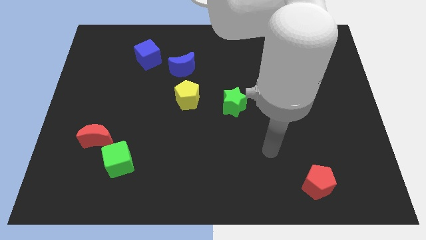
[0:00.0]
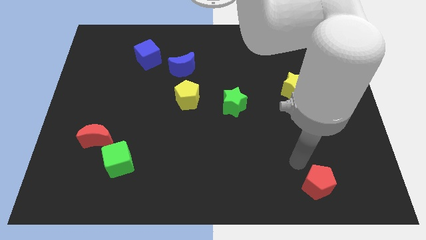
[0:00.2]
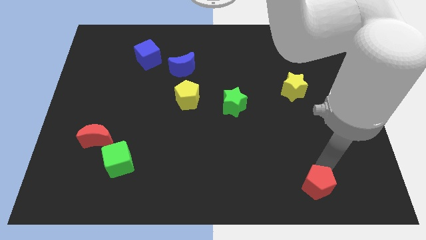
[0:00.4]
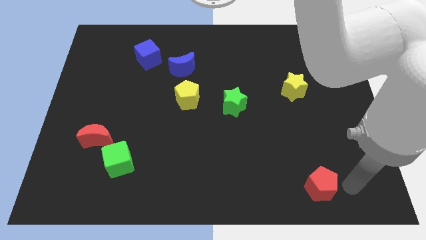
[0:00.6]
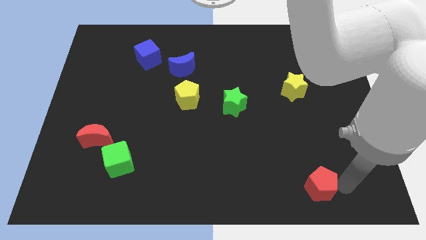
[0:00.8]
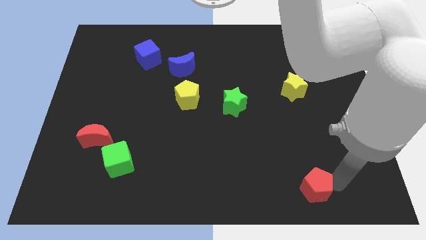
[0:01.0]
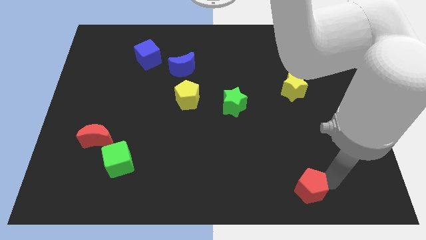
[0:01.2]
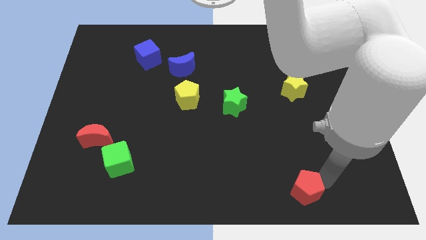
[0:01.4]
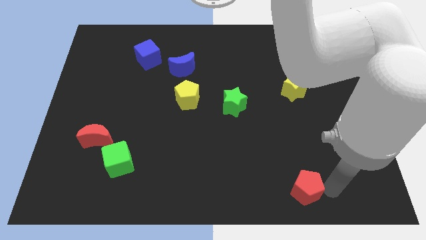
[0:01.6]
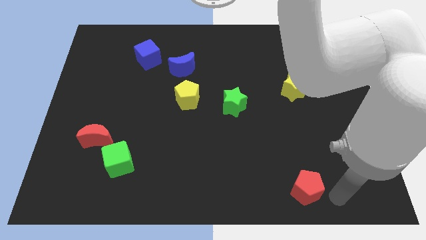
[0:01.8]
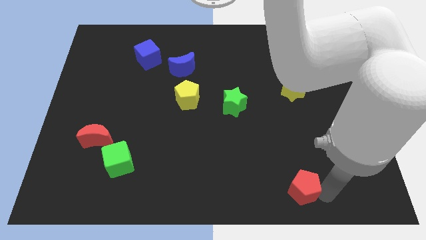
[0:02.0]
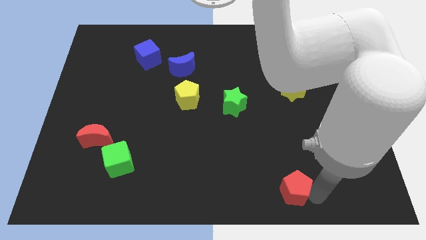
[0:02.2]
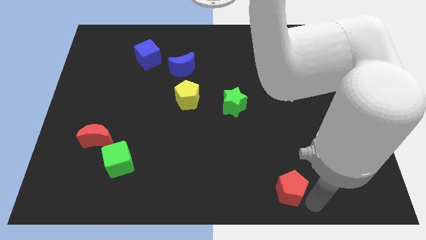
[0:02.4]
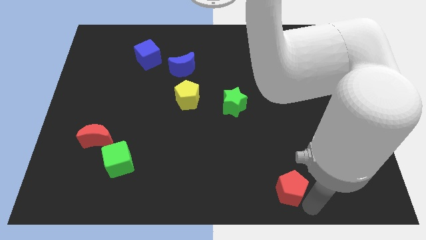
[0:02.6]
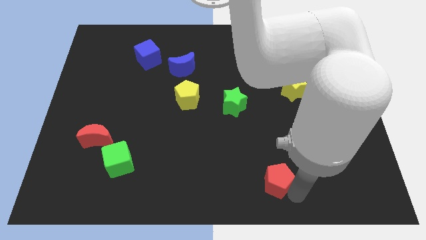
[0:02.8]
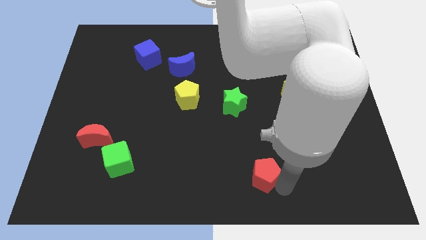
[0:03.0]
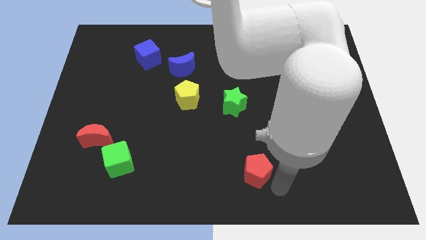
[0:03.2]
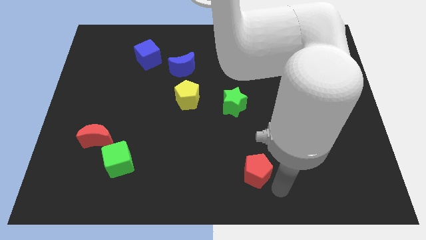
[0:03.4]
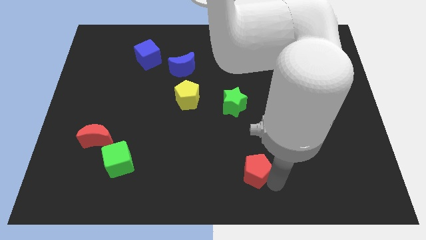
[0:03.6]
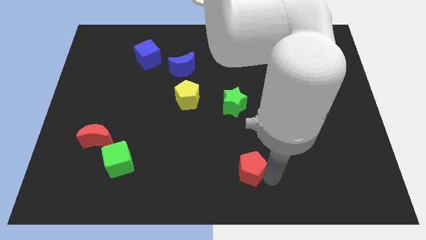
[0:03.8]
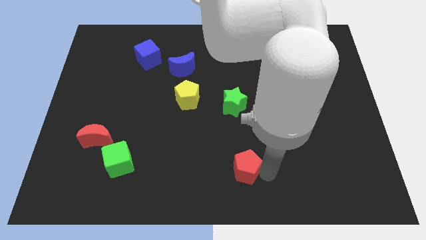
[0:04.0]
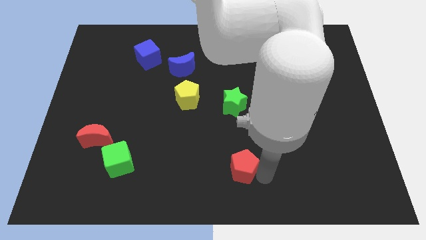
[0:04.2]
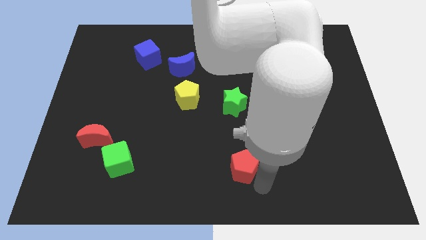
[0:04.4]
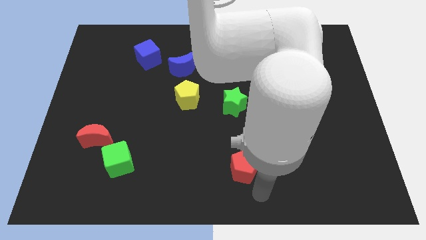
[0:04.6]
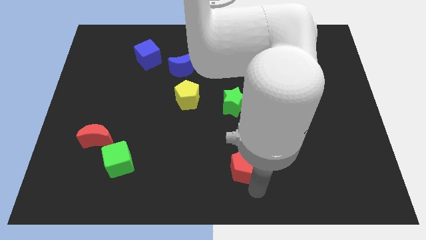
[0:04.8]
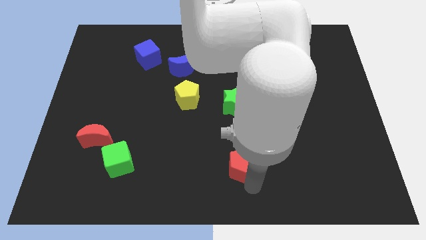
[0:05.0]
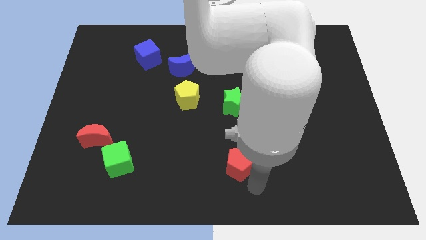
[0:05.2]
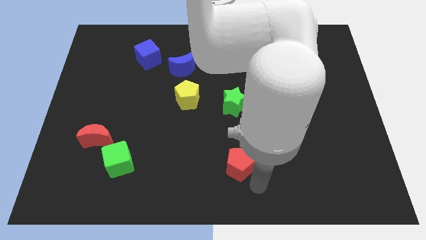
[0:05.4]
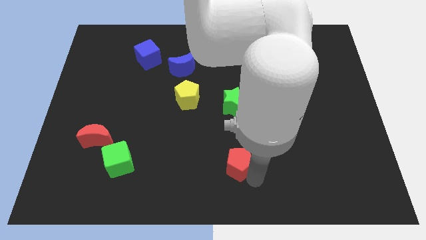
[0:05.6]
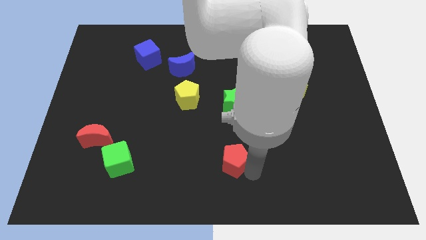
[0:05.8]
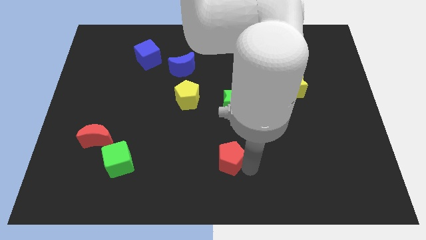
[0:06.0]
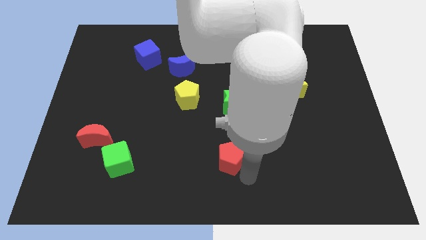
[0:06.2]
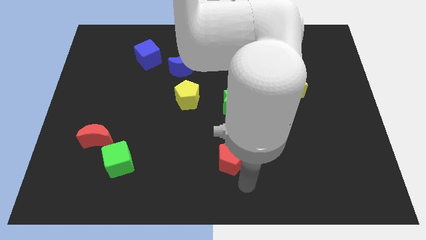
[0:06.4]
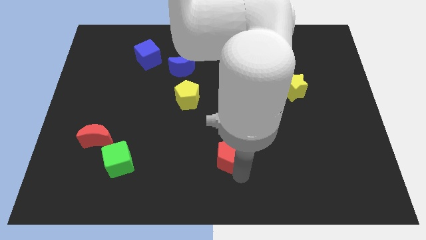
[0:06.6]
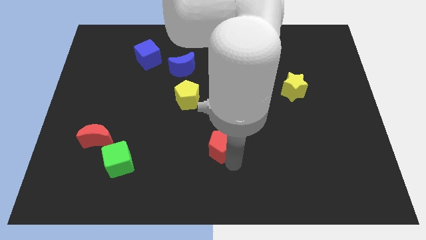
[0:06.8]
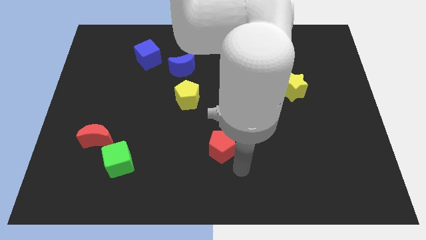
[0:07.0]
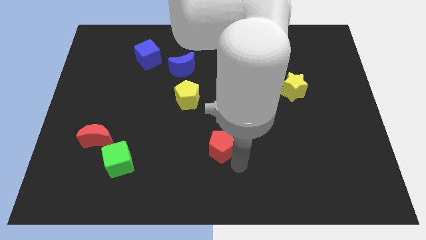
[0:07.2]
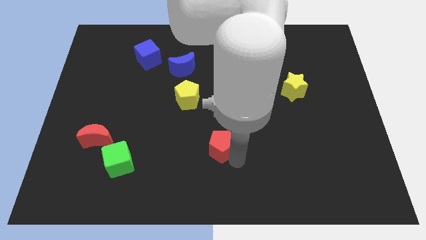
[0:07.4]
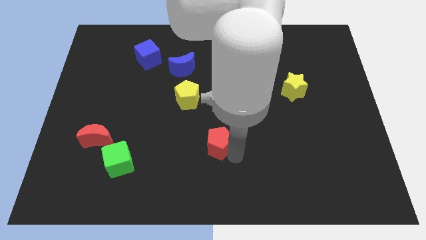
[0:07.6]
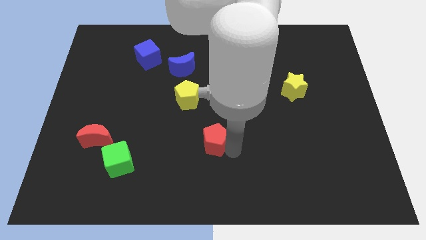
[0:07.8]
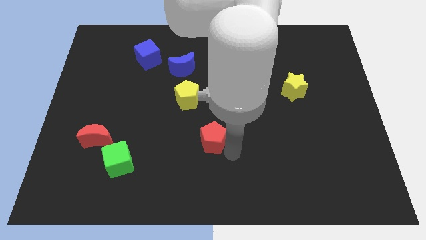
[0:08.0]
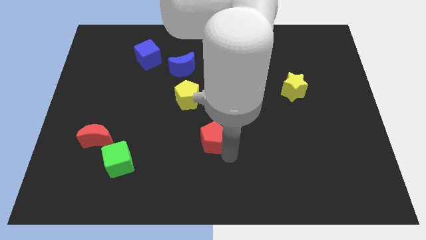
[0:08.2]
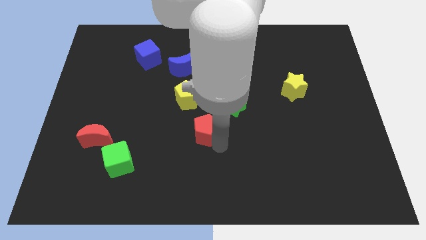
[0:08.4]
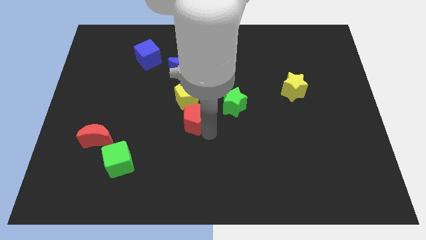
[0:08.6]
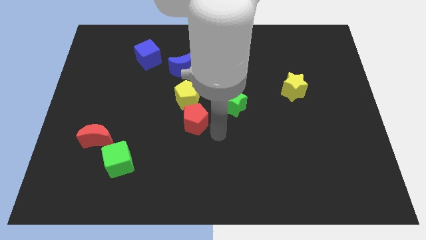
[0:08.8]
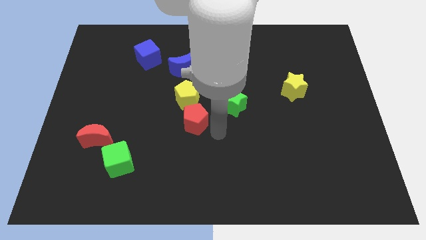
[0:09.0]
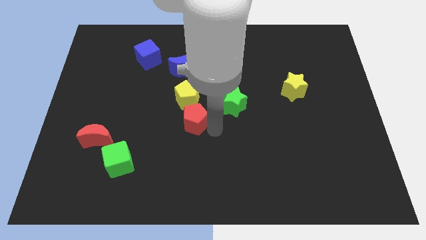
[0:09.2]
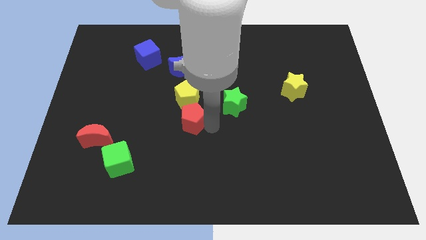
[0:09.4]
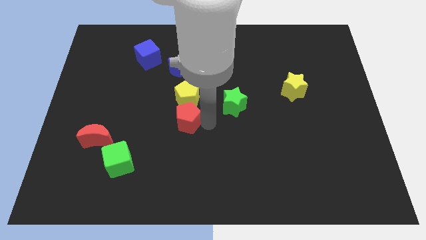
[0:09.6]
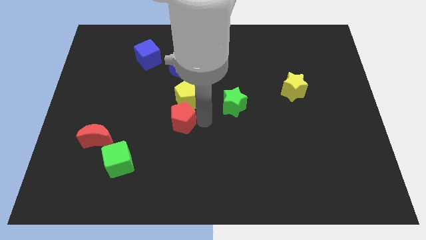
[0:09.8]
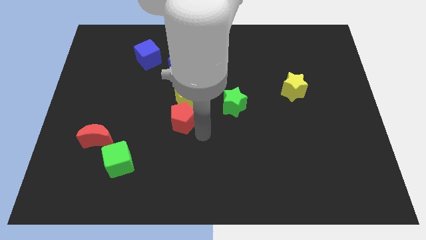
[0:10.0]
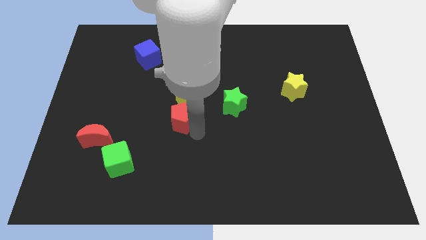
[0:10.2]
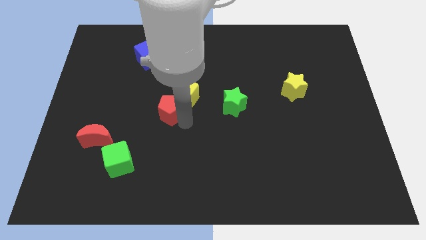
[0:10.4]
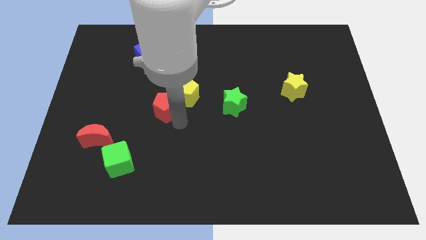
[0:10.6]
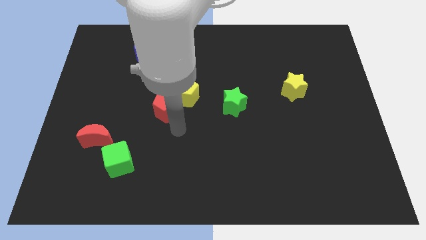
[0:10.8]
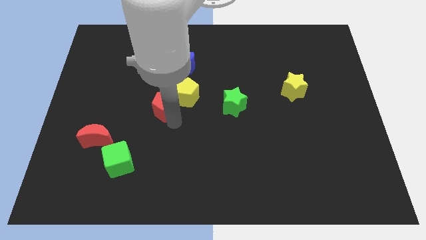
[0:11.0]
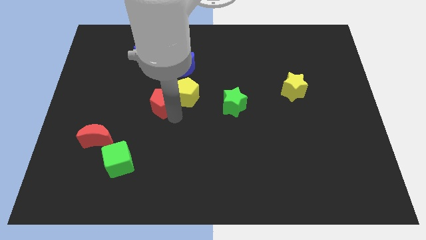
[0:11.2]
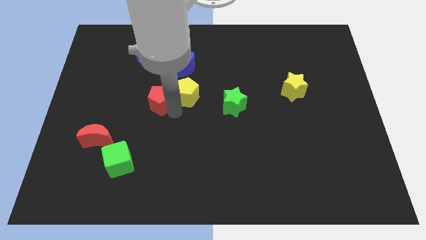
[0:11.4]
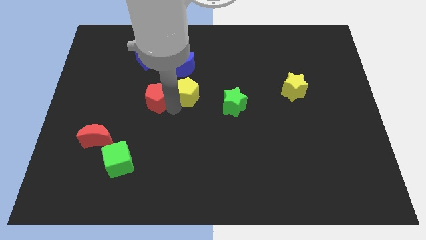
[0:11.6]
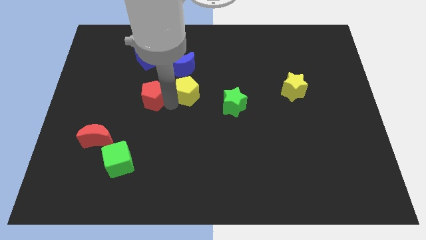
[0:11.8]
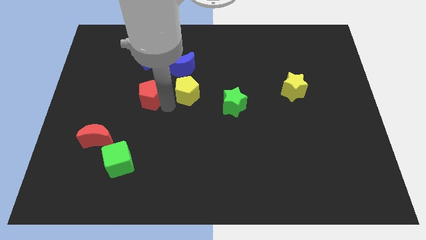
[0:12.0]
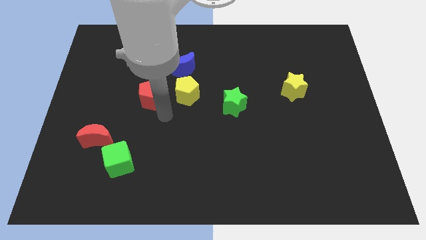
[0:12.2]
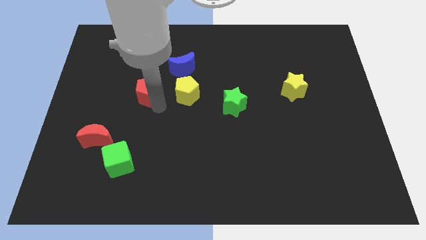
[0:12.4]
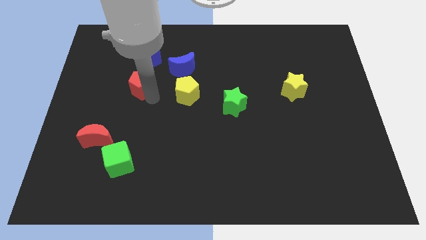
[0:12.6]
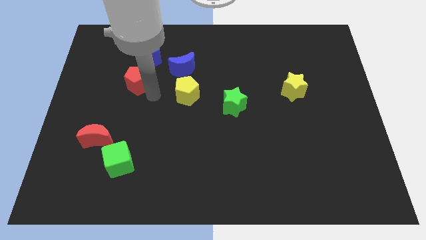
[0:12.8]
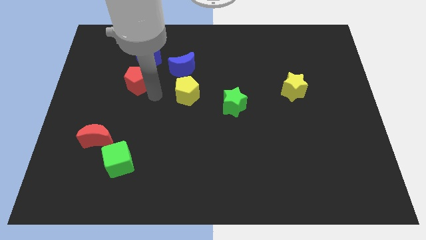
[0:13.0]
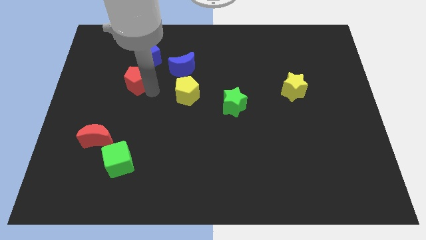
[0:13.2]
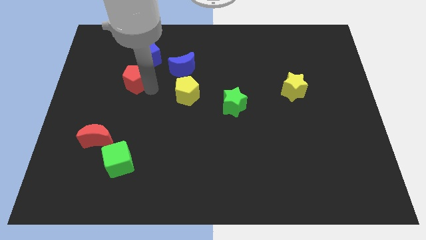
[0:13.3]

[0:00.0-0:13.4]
put the red pentagon to the bottom left of the blue cube

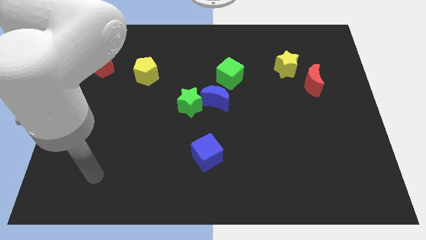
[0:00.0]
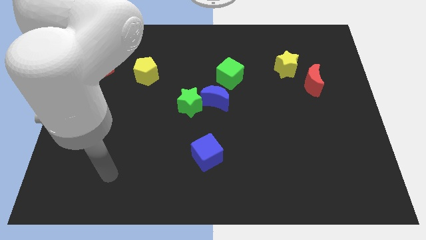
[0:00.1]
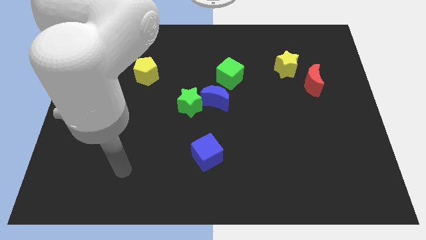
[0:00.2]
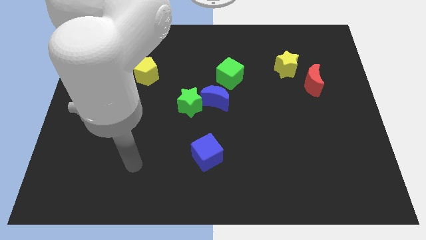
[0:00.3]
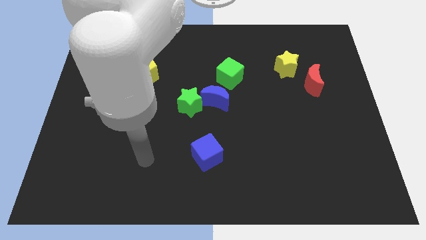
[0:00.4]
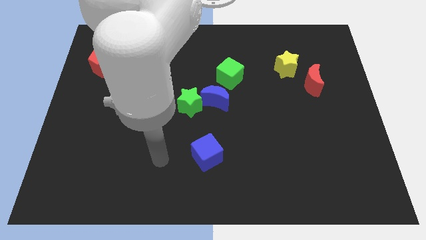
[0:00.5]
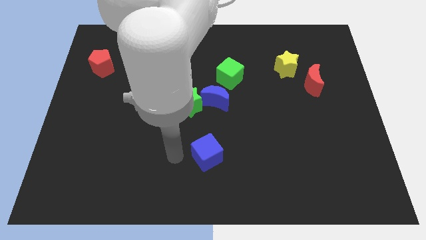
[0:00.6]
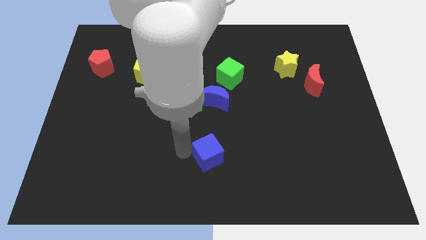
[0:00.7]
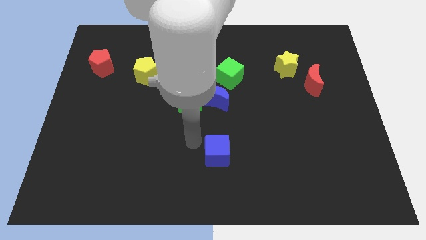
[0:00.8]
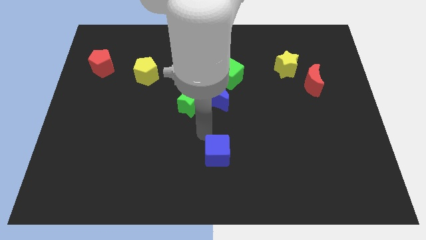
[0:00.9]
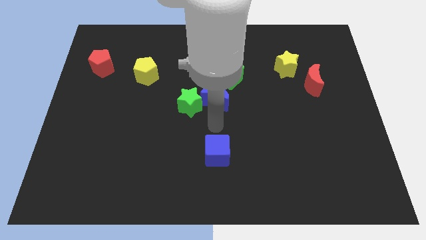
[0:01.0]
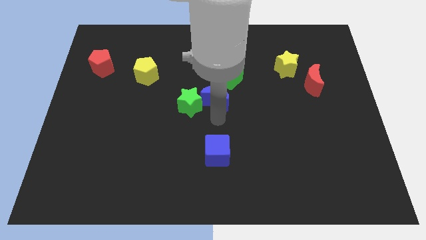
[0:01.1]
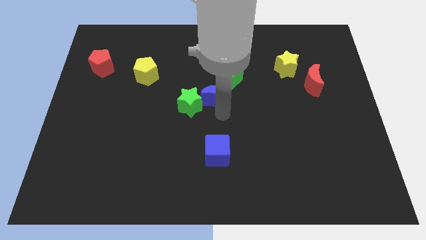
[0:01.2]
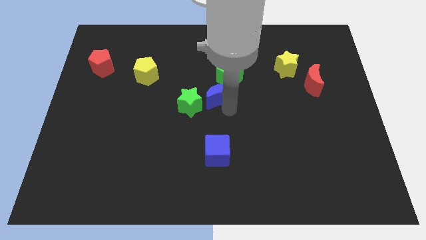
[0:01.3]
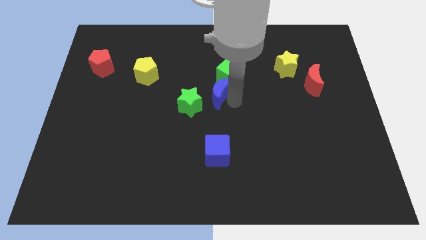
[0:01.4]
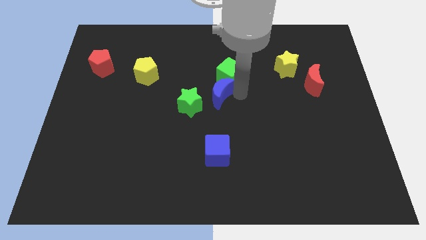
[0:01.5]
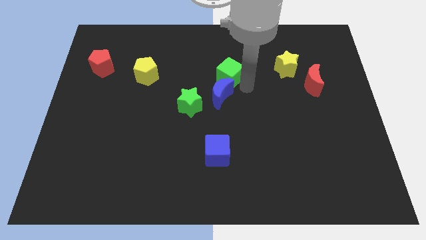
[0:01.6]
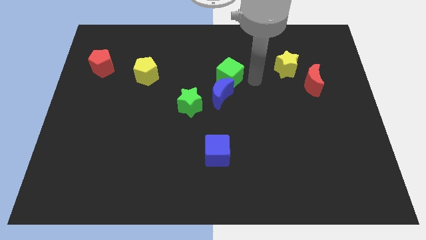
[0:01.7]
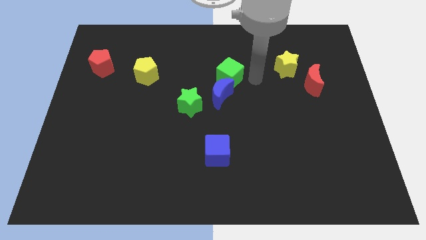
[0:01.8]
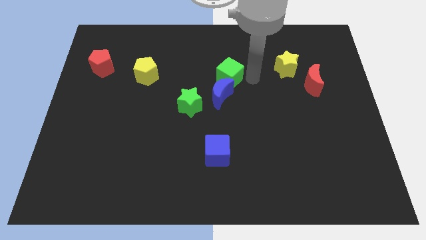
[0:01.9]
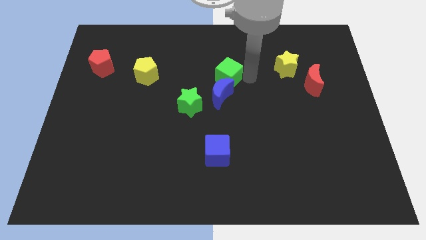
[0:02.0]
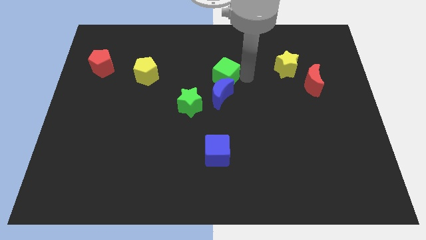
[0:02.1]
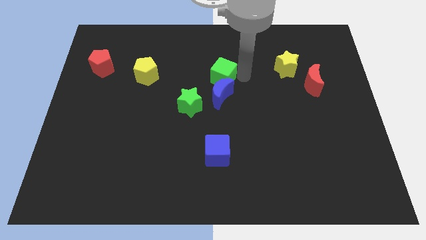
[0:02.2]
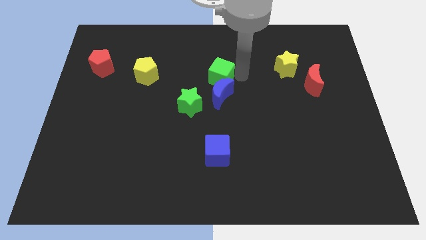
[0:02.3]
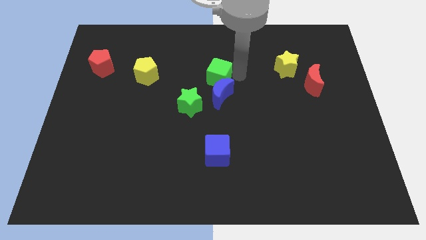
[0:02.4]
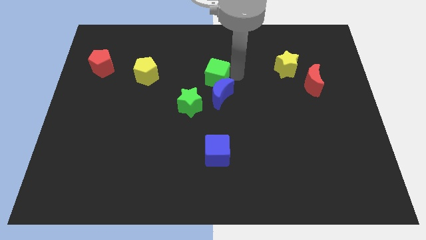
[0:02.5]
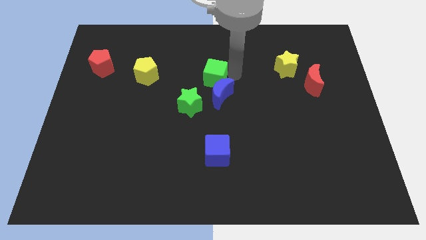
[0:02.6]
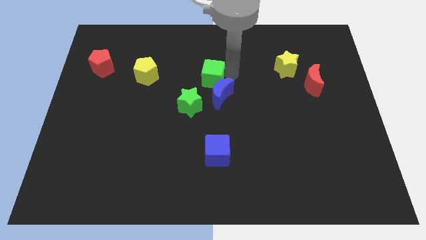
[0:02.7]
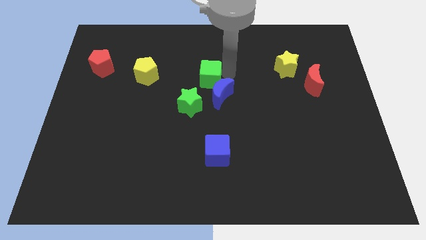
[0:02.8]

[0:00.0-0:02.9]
push the green cube right of the yellow pentagon
